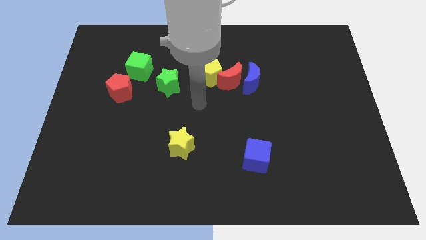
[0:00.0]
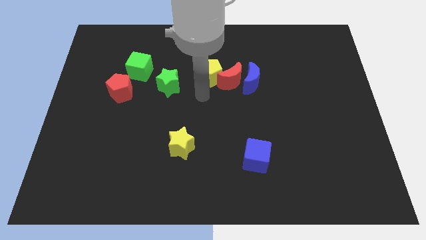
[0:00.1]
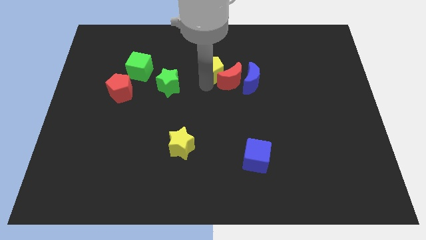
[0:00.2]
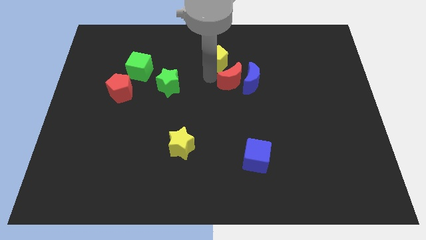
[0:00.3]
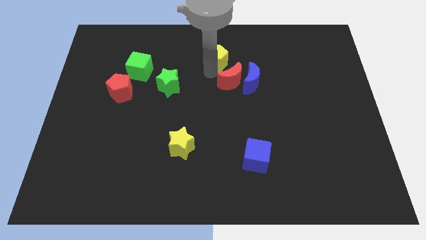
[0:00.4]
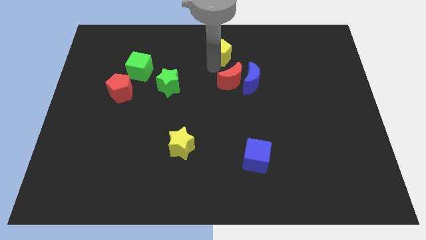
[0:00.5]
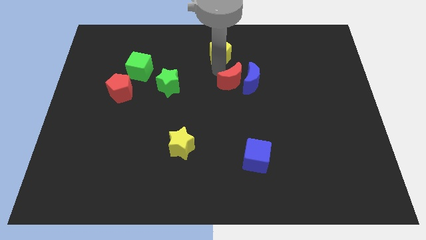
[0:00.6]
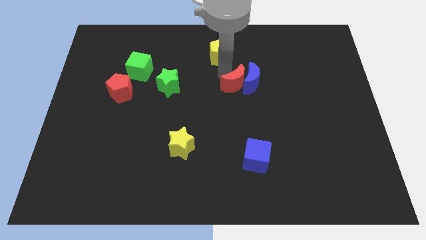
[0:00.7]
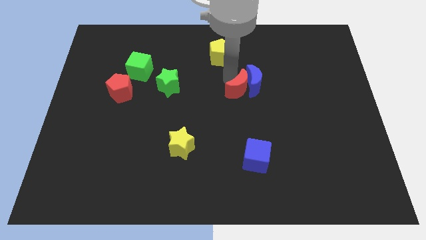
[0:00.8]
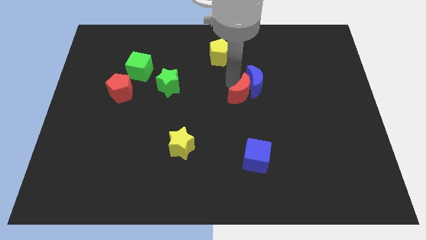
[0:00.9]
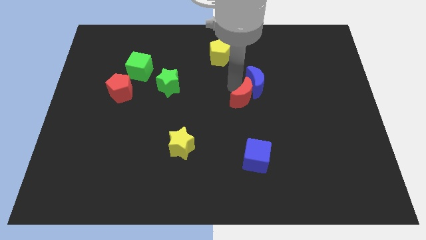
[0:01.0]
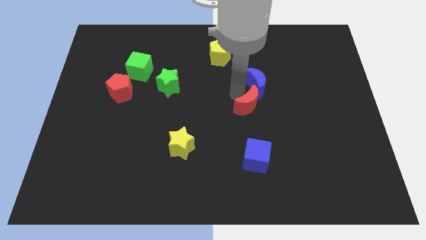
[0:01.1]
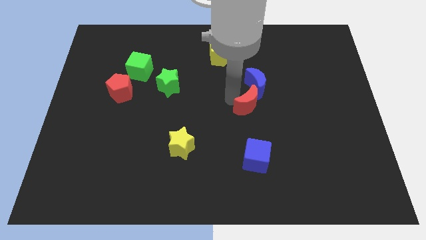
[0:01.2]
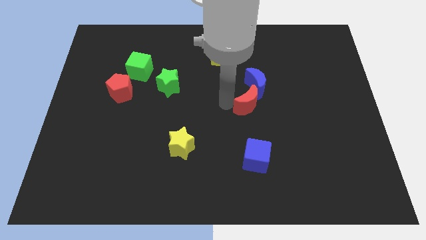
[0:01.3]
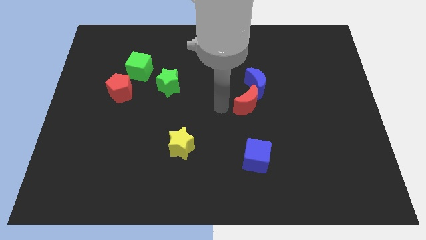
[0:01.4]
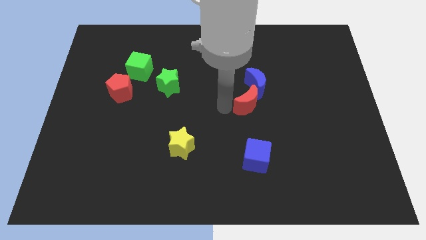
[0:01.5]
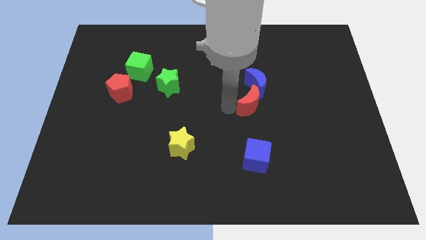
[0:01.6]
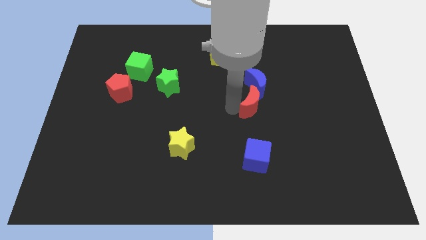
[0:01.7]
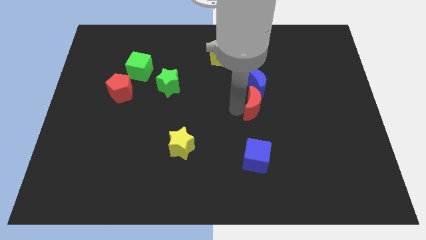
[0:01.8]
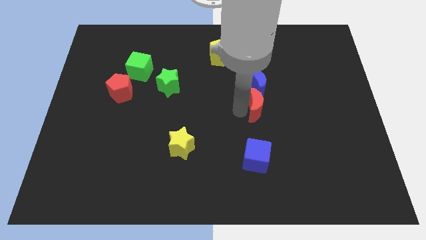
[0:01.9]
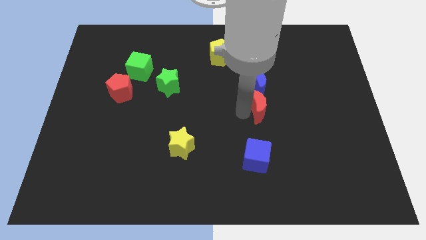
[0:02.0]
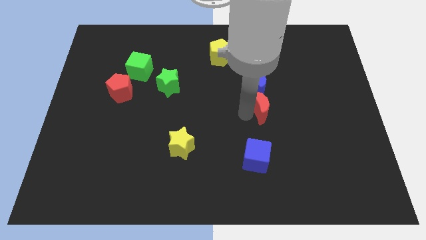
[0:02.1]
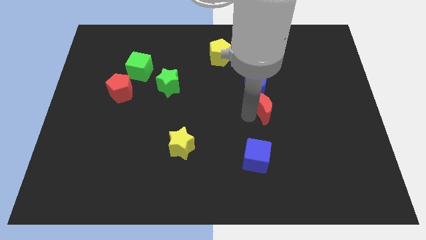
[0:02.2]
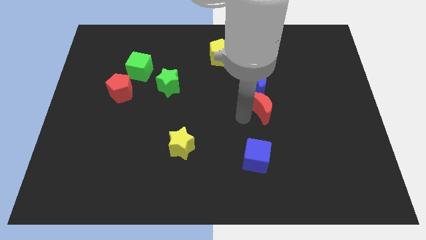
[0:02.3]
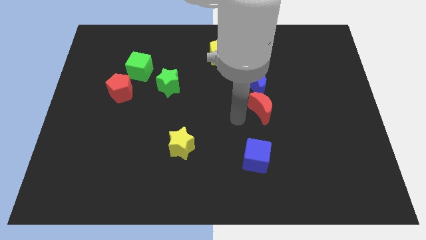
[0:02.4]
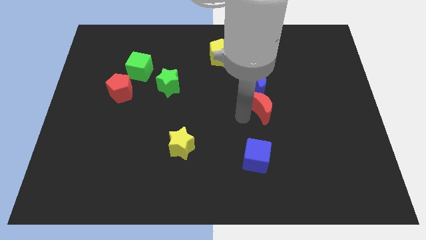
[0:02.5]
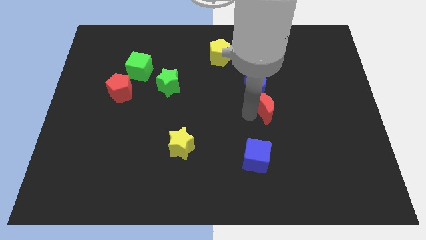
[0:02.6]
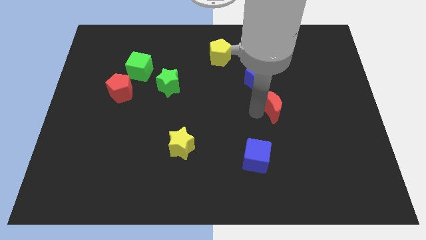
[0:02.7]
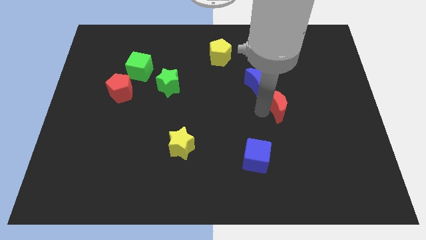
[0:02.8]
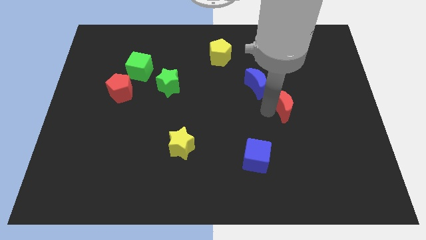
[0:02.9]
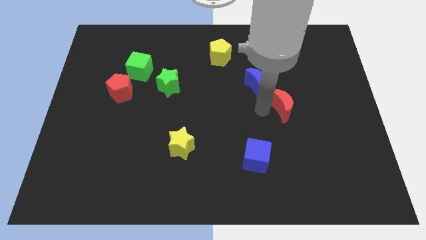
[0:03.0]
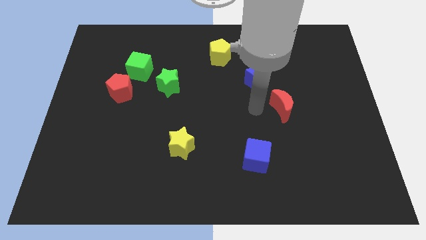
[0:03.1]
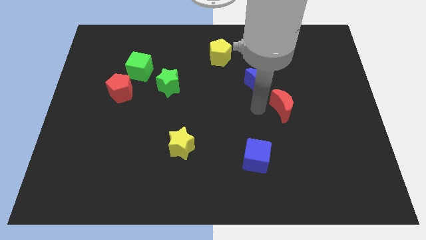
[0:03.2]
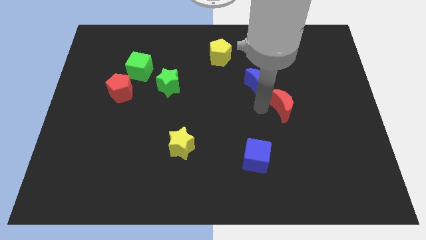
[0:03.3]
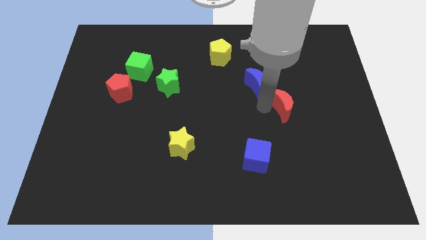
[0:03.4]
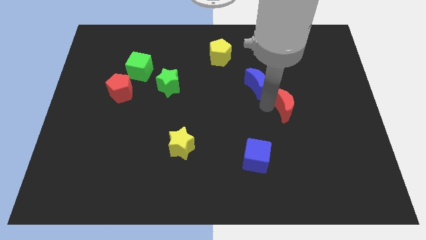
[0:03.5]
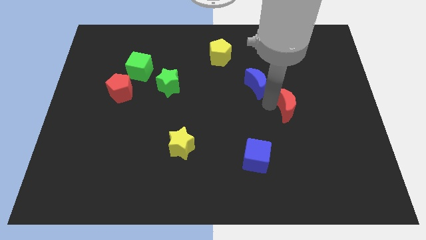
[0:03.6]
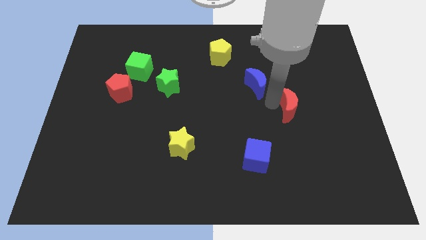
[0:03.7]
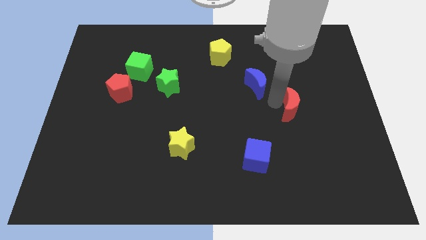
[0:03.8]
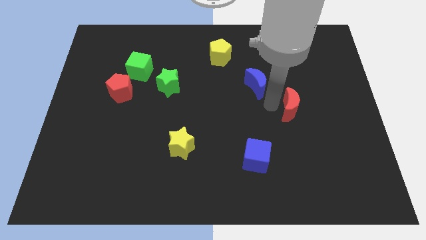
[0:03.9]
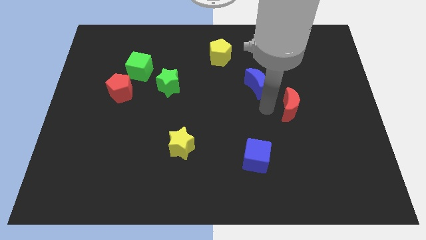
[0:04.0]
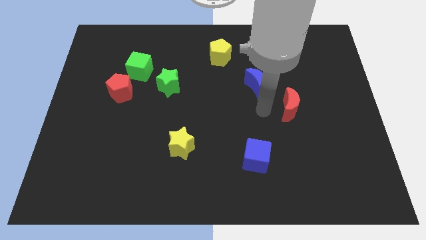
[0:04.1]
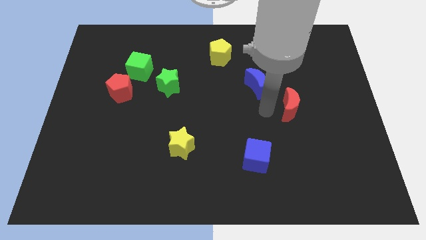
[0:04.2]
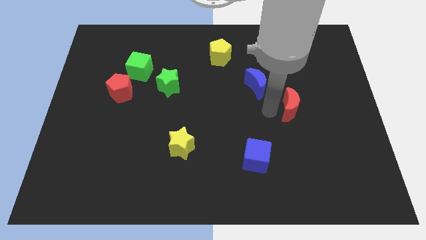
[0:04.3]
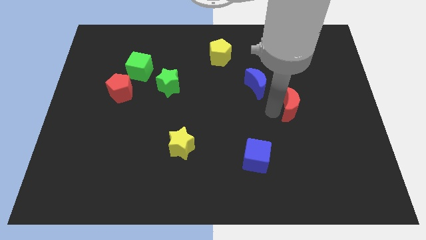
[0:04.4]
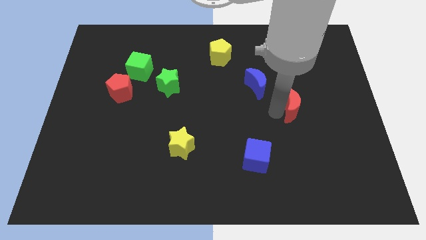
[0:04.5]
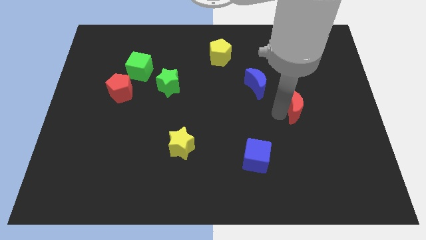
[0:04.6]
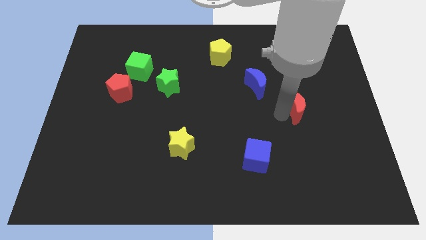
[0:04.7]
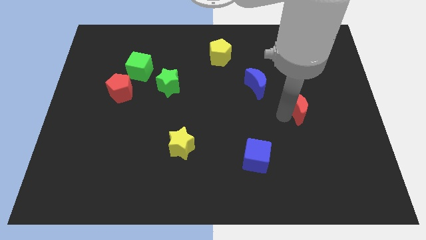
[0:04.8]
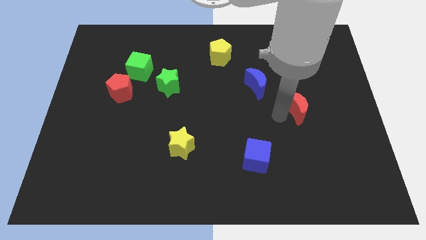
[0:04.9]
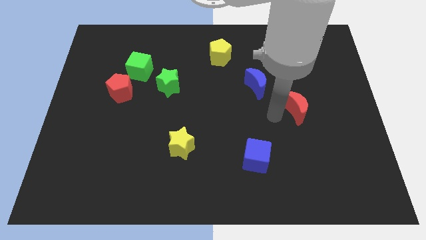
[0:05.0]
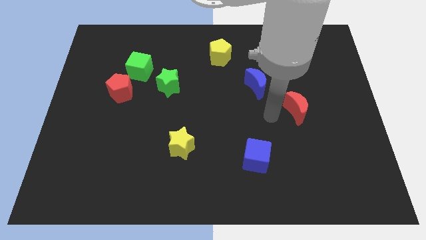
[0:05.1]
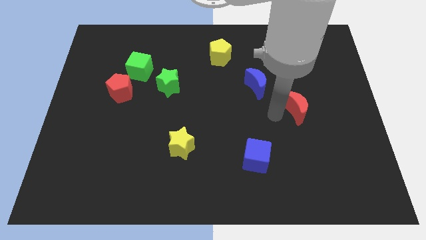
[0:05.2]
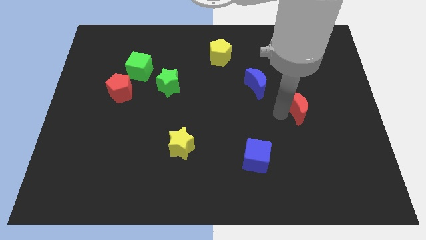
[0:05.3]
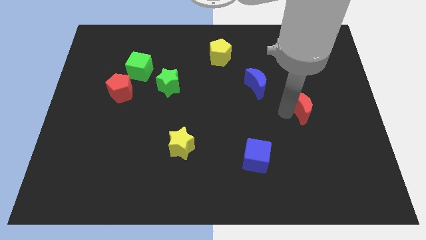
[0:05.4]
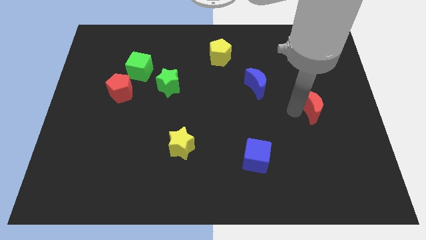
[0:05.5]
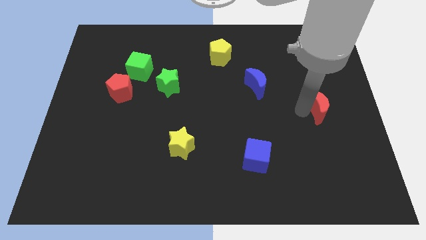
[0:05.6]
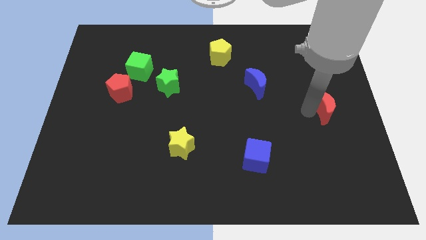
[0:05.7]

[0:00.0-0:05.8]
slide the red moon to the center right

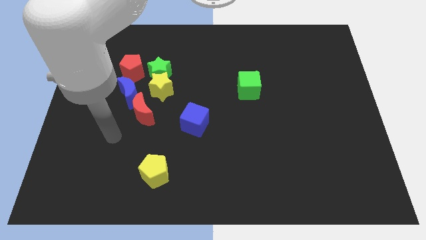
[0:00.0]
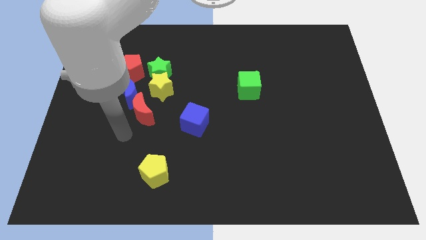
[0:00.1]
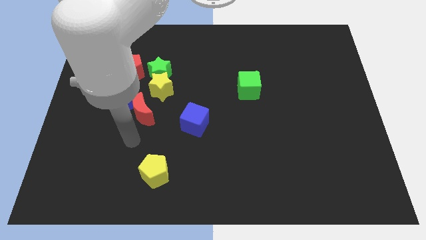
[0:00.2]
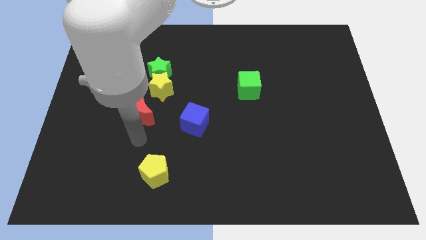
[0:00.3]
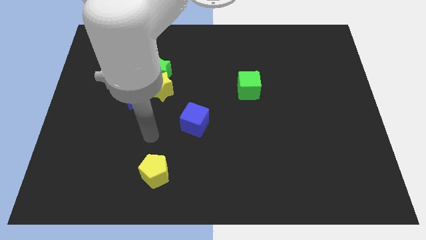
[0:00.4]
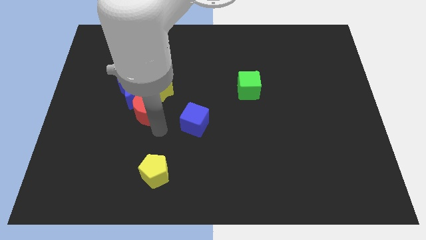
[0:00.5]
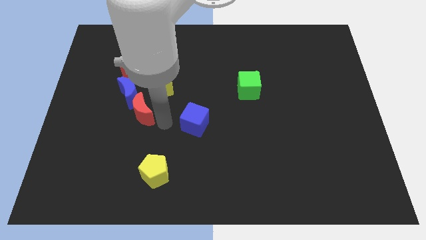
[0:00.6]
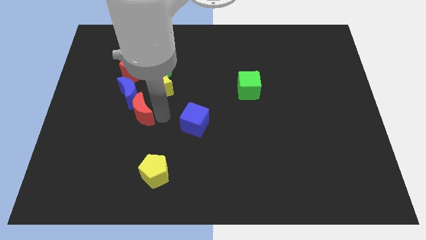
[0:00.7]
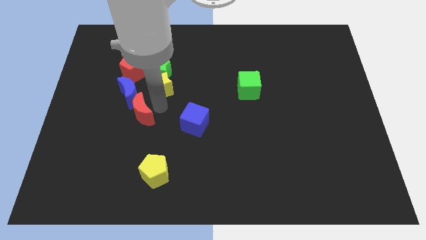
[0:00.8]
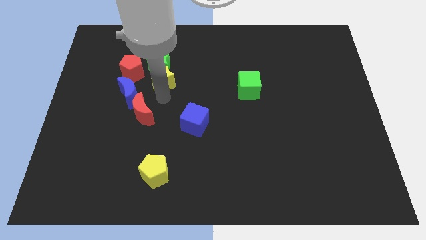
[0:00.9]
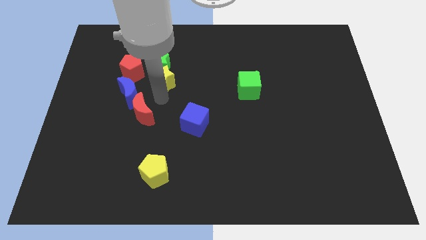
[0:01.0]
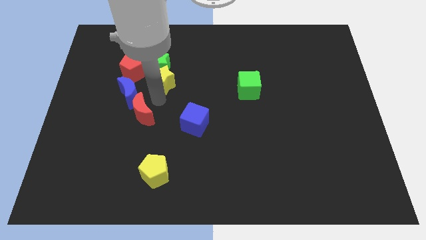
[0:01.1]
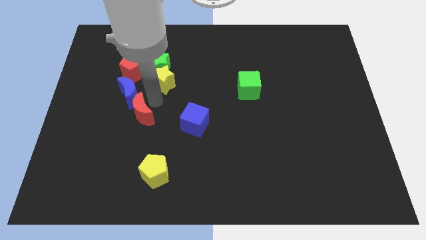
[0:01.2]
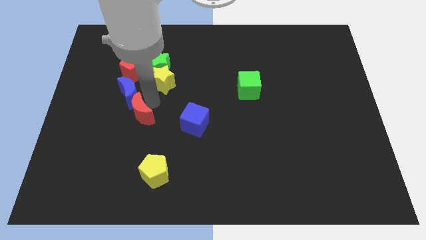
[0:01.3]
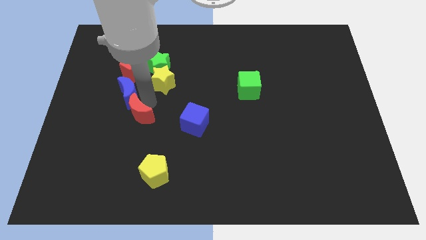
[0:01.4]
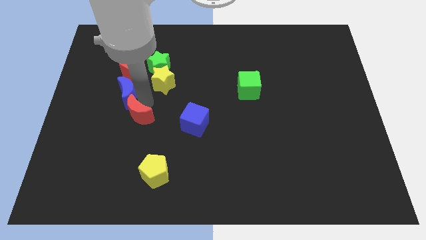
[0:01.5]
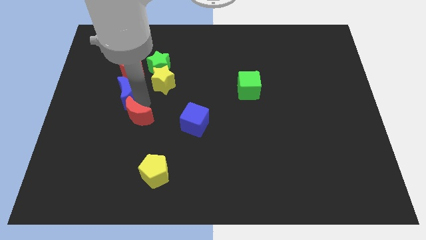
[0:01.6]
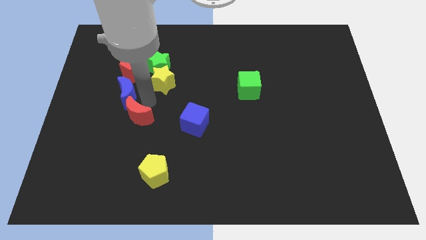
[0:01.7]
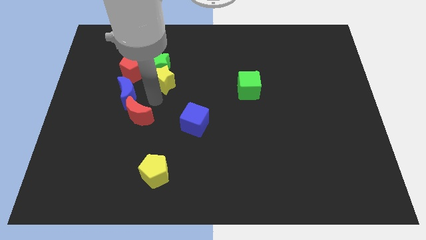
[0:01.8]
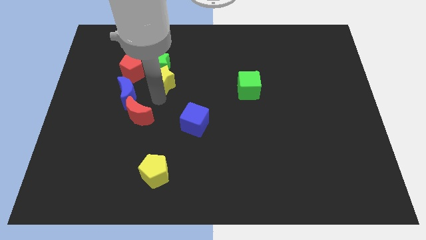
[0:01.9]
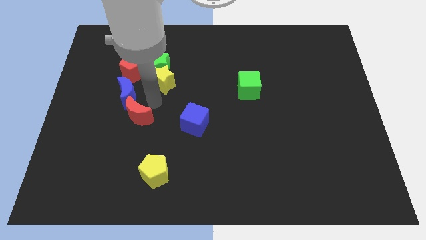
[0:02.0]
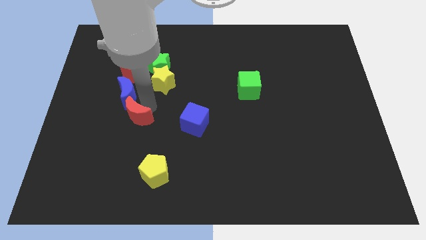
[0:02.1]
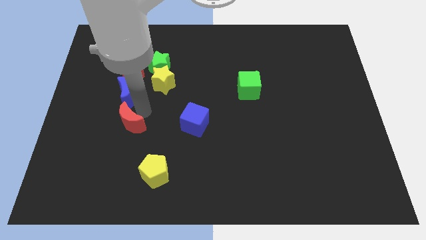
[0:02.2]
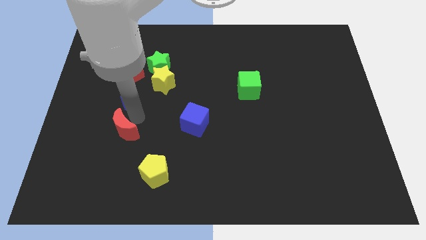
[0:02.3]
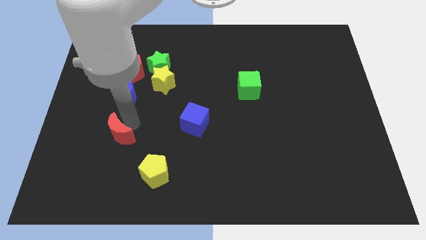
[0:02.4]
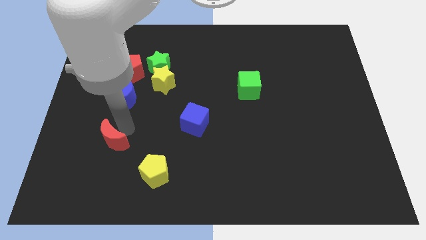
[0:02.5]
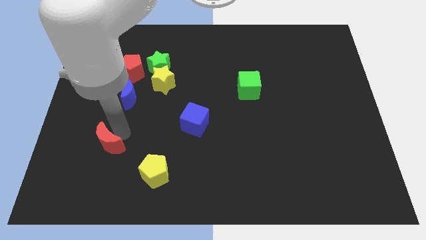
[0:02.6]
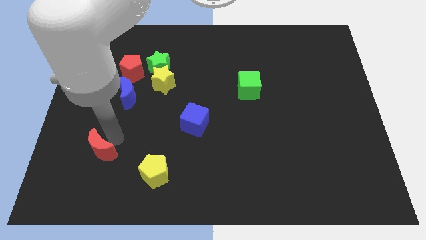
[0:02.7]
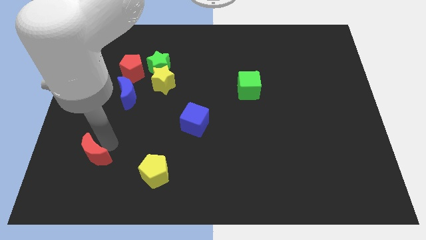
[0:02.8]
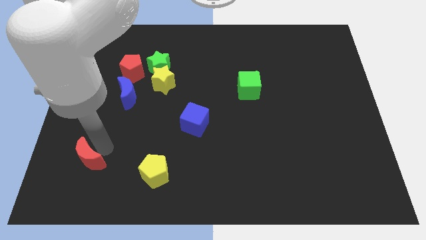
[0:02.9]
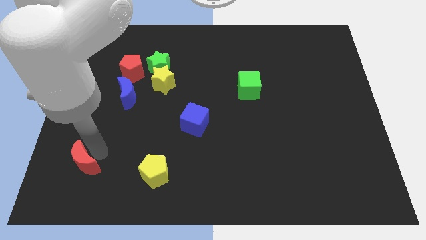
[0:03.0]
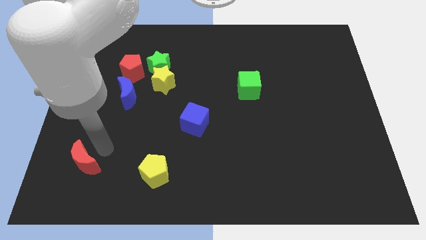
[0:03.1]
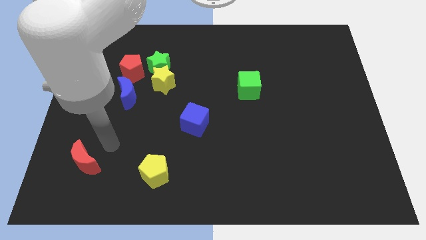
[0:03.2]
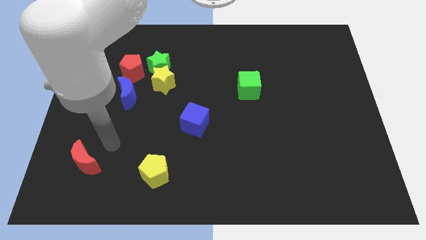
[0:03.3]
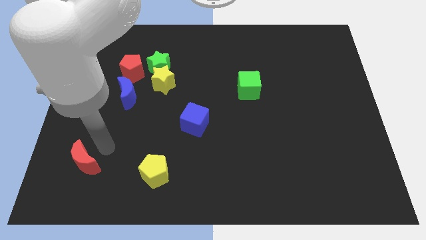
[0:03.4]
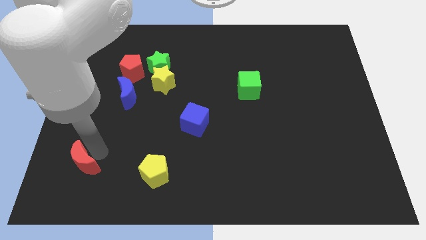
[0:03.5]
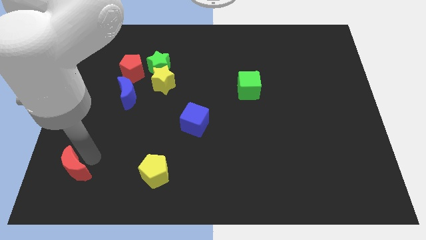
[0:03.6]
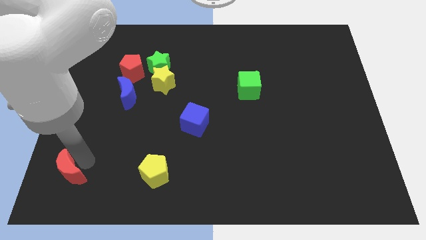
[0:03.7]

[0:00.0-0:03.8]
move the red moon to the lower left corner
